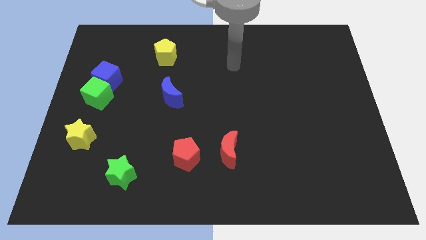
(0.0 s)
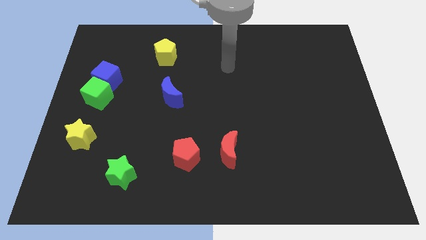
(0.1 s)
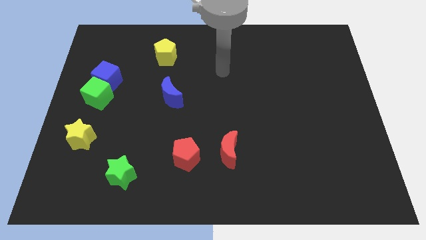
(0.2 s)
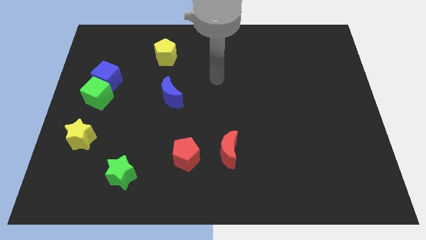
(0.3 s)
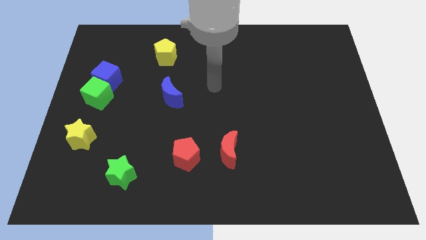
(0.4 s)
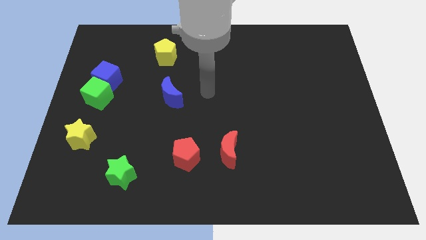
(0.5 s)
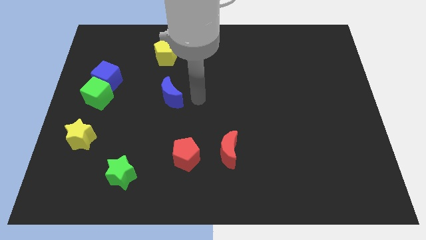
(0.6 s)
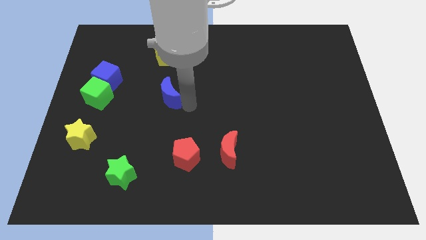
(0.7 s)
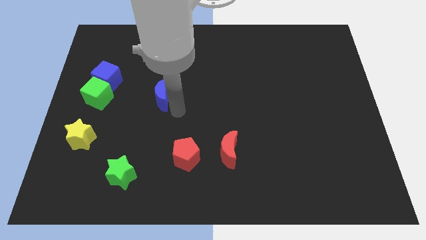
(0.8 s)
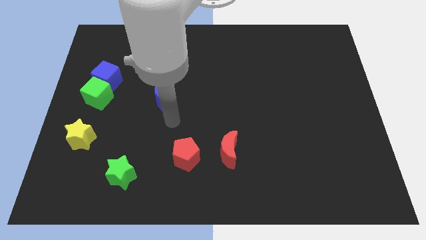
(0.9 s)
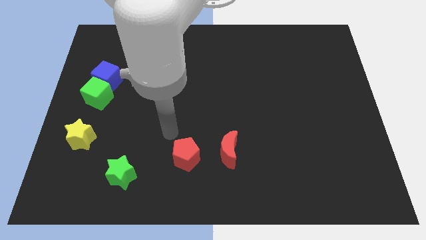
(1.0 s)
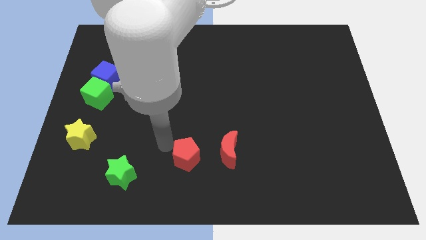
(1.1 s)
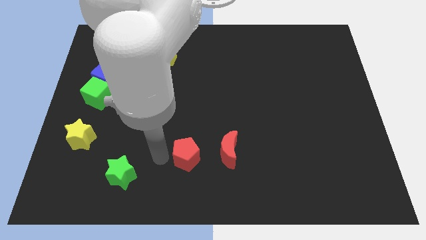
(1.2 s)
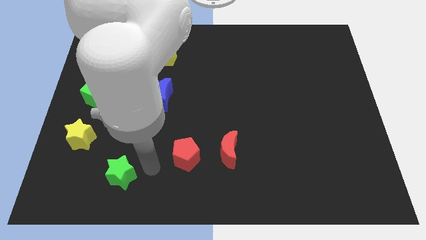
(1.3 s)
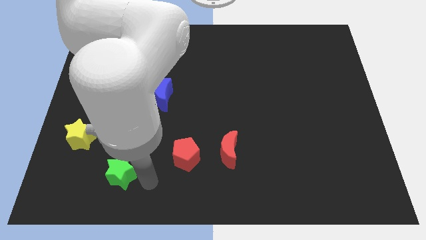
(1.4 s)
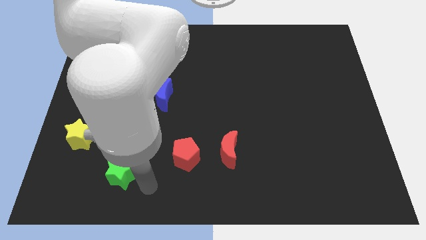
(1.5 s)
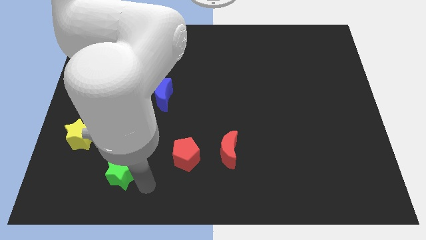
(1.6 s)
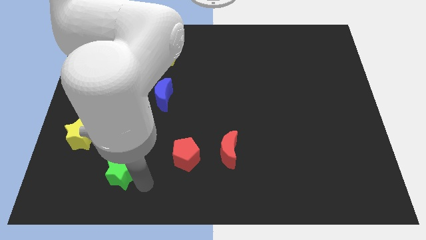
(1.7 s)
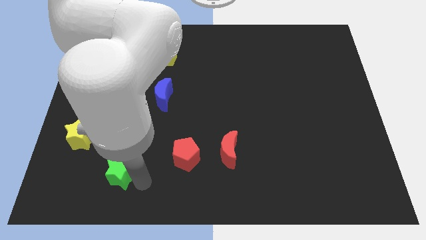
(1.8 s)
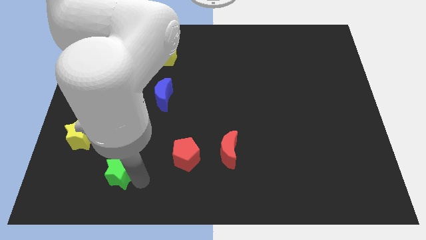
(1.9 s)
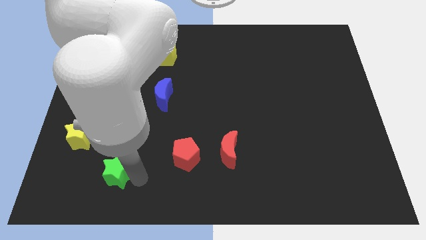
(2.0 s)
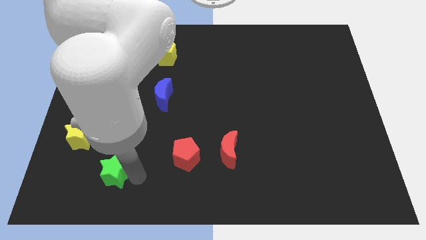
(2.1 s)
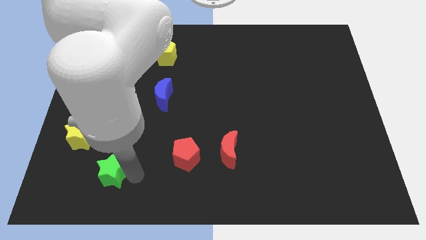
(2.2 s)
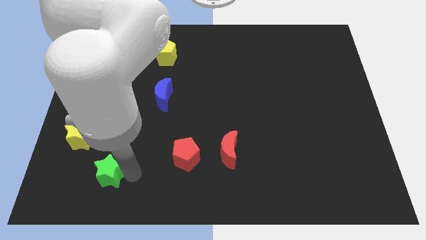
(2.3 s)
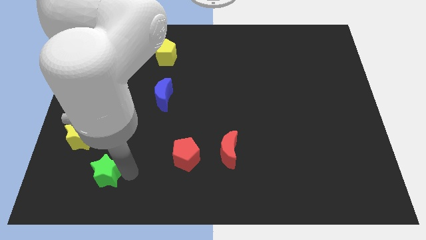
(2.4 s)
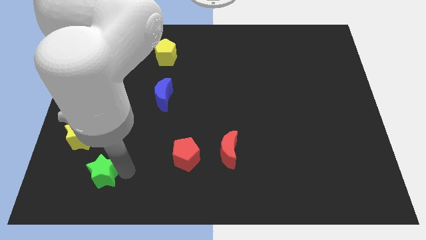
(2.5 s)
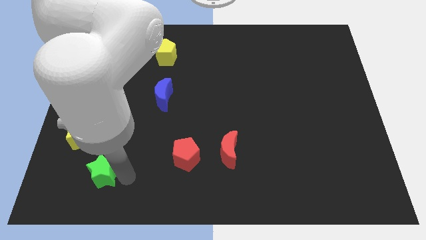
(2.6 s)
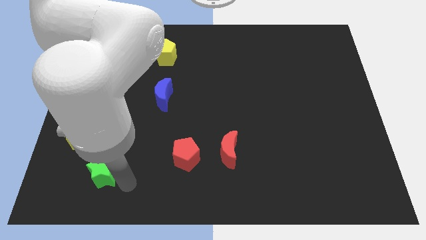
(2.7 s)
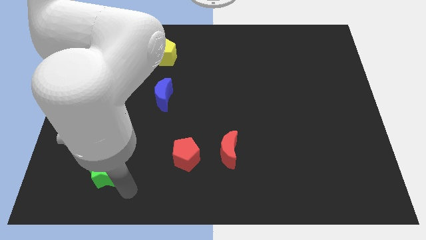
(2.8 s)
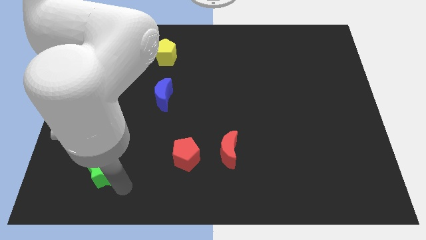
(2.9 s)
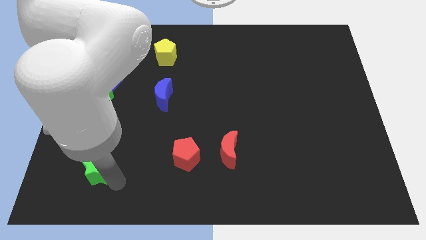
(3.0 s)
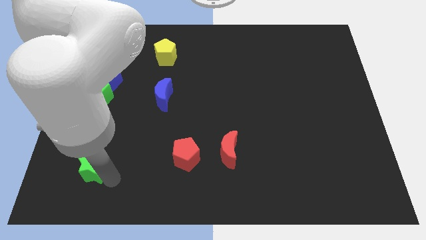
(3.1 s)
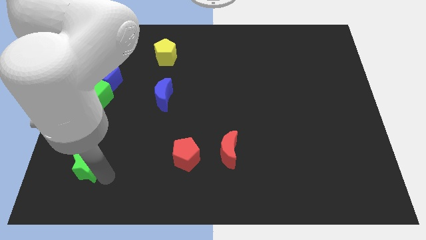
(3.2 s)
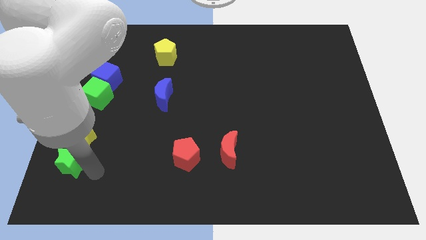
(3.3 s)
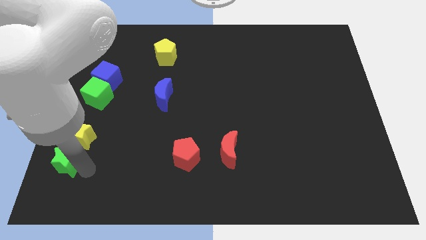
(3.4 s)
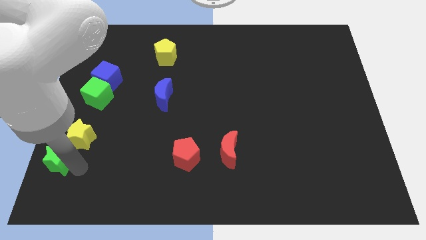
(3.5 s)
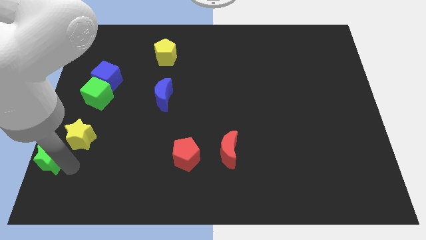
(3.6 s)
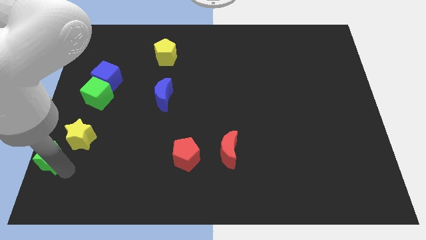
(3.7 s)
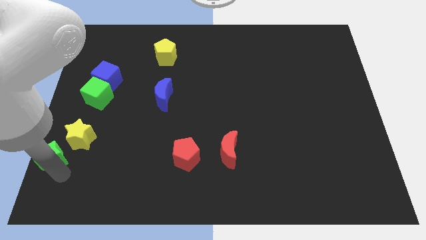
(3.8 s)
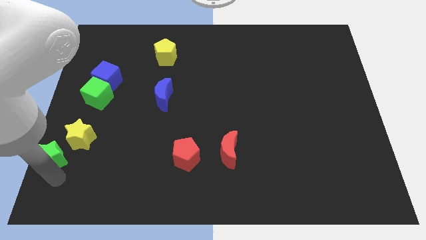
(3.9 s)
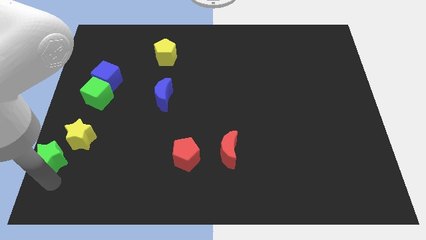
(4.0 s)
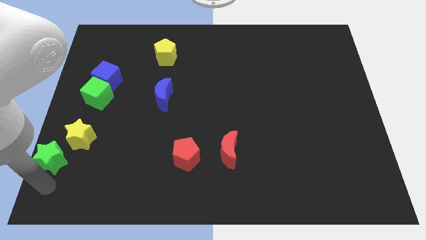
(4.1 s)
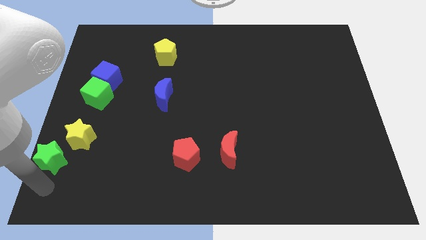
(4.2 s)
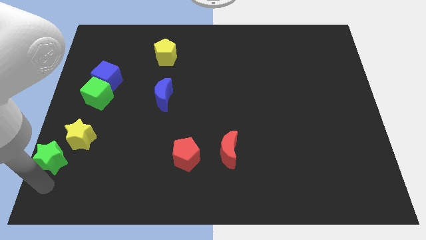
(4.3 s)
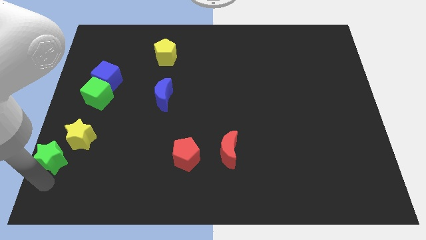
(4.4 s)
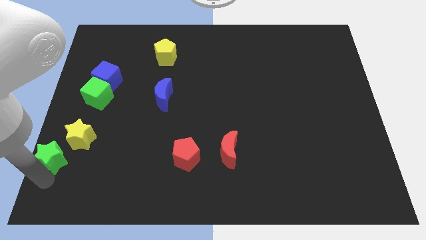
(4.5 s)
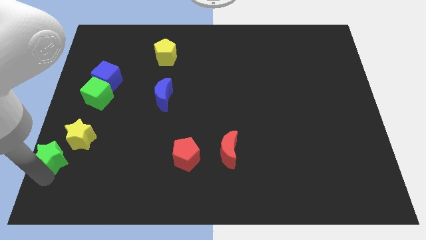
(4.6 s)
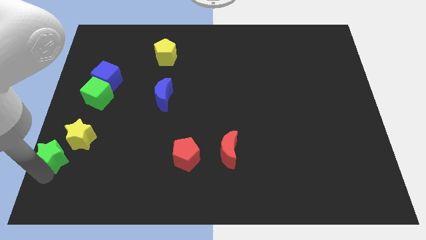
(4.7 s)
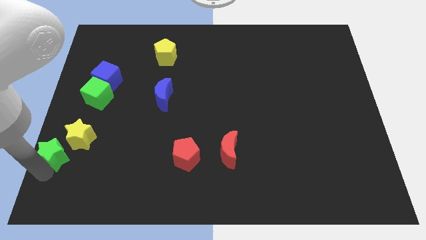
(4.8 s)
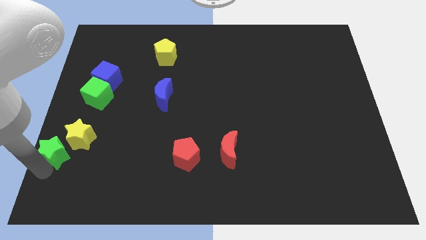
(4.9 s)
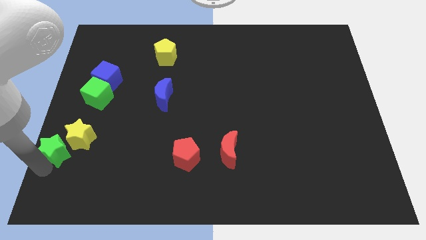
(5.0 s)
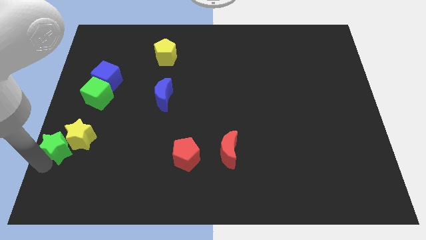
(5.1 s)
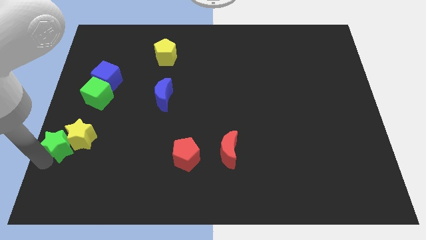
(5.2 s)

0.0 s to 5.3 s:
push the green star to the left side
